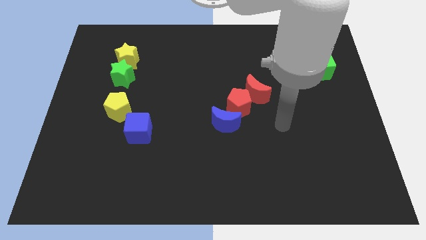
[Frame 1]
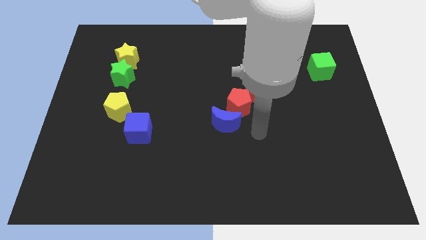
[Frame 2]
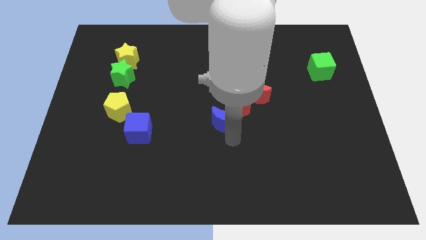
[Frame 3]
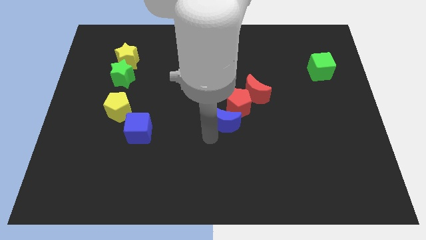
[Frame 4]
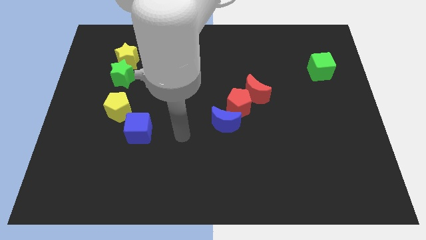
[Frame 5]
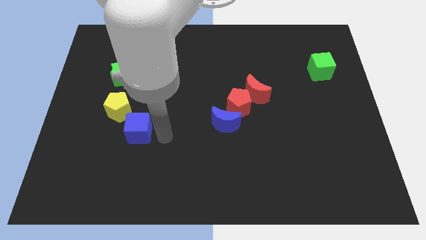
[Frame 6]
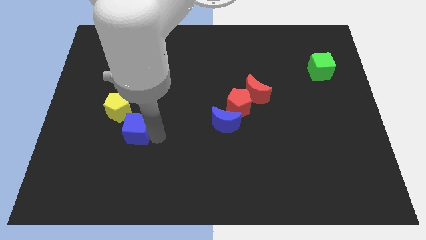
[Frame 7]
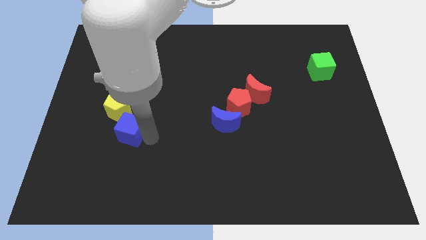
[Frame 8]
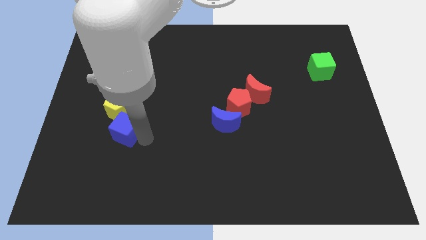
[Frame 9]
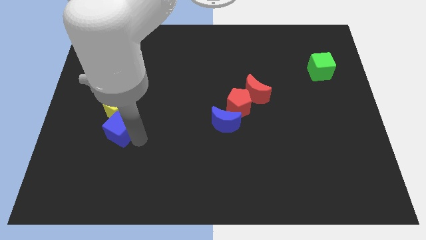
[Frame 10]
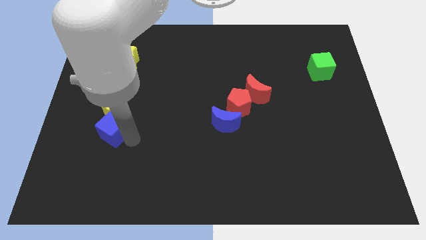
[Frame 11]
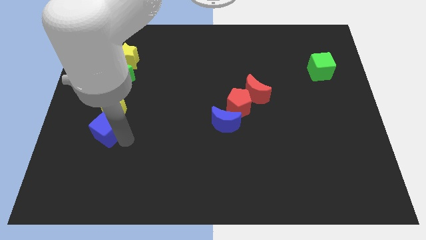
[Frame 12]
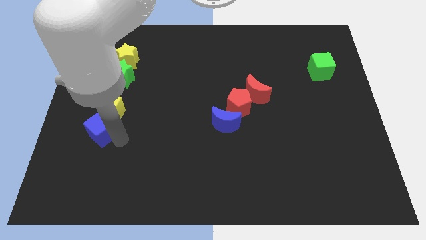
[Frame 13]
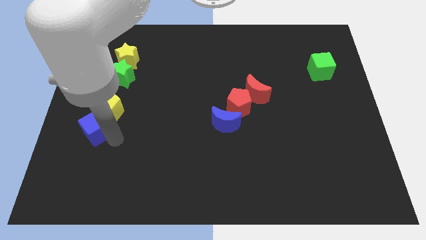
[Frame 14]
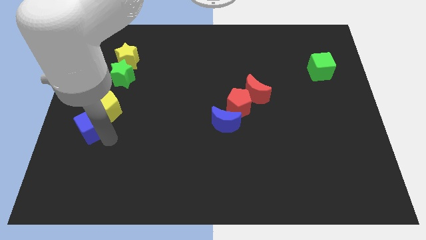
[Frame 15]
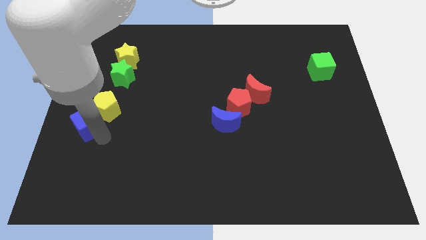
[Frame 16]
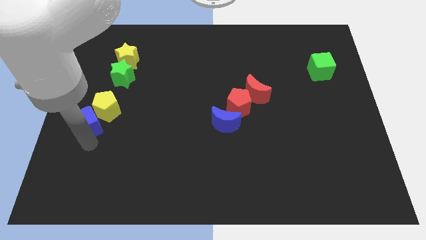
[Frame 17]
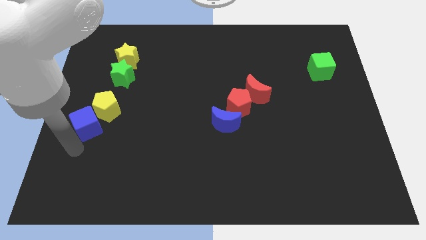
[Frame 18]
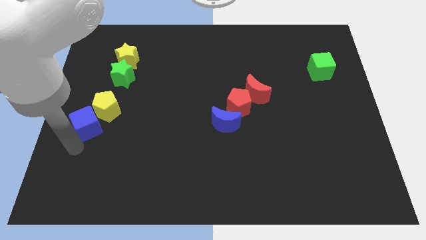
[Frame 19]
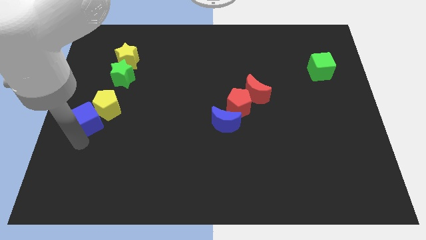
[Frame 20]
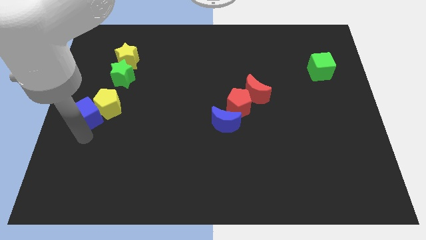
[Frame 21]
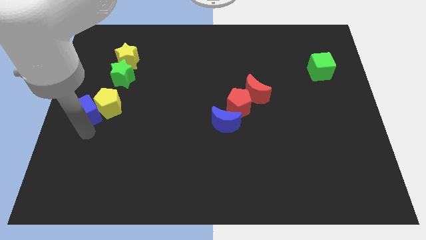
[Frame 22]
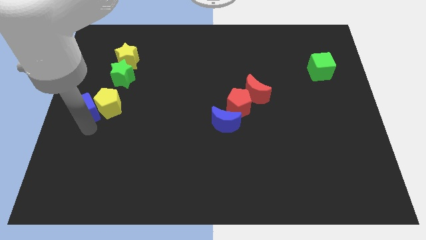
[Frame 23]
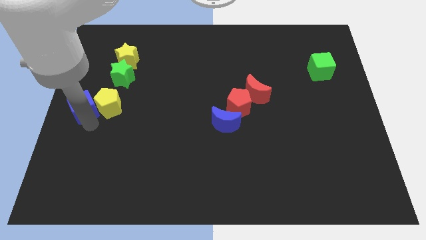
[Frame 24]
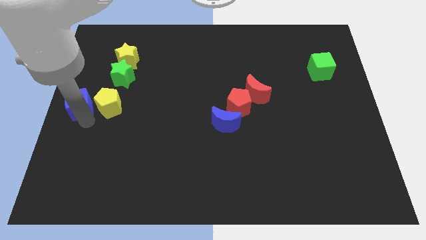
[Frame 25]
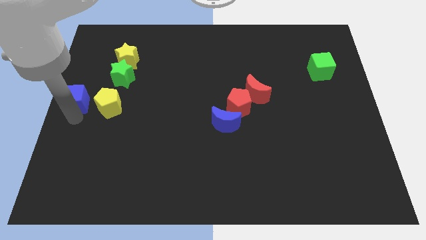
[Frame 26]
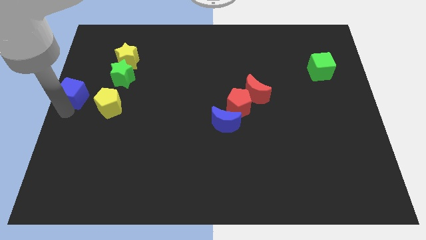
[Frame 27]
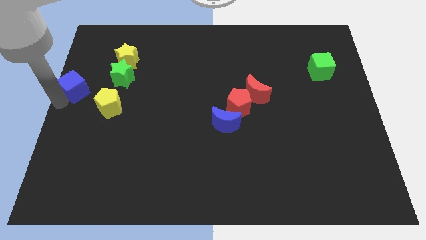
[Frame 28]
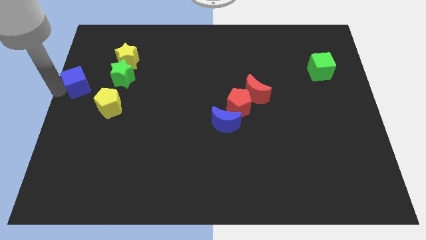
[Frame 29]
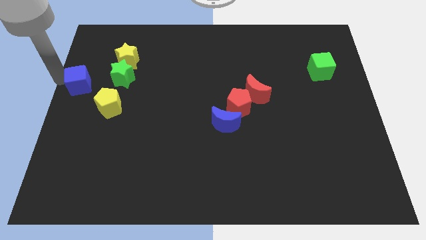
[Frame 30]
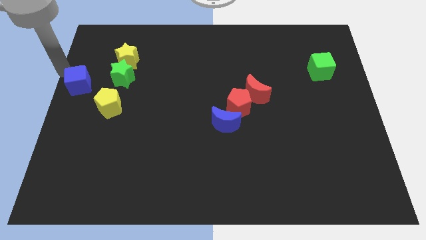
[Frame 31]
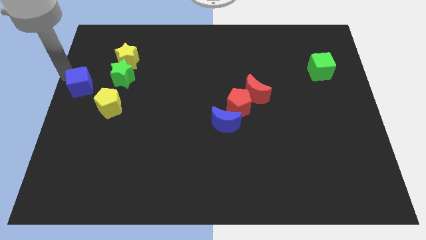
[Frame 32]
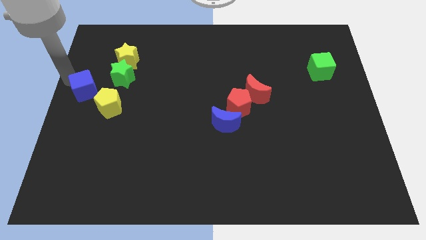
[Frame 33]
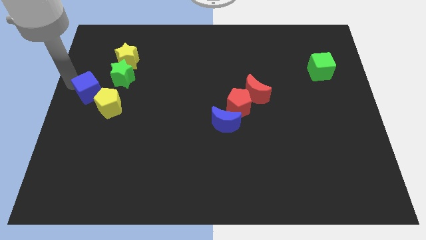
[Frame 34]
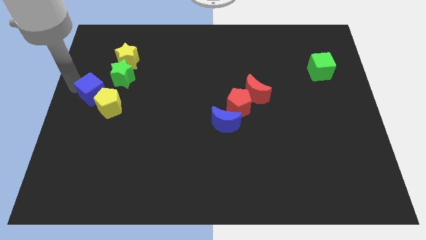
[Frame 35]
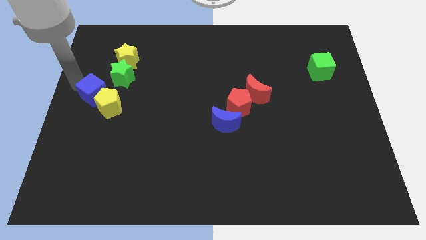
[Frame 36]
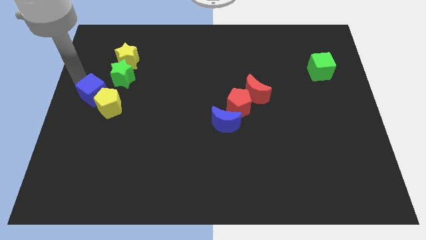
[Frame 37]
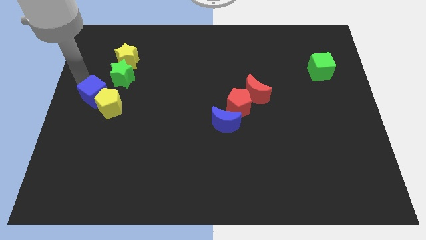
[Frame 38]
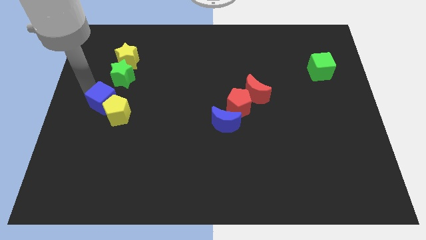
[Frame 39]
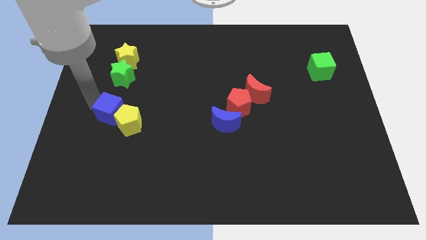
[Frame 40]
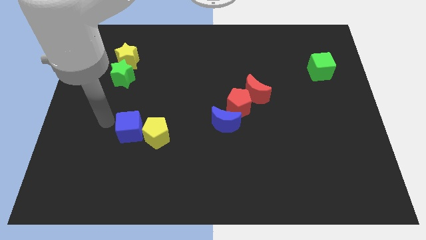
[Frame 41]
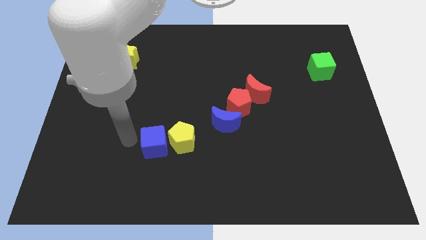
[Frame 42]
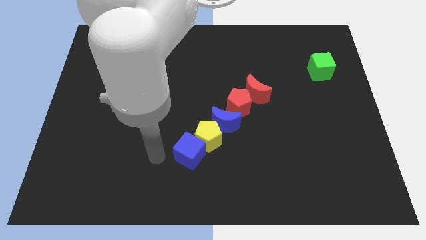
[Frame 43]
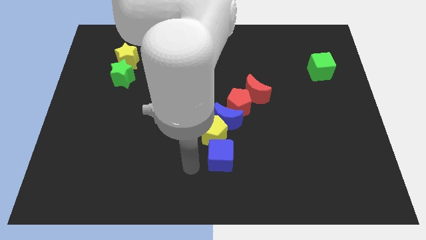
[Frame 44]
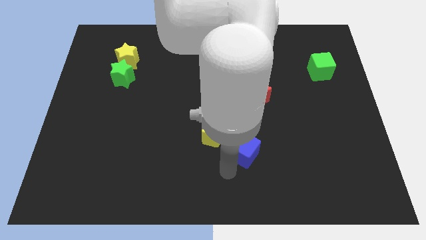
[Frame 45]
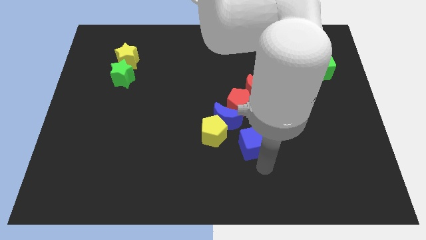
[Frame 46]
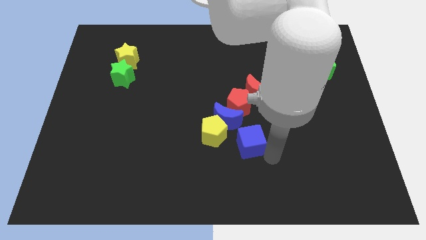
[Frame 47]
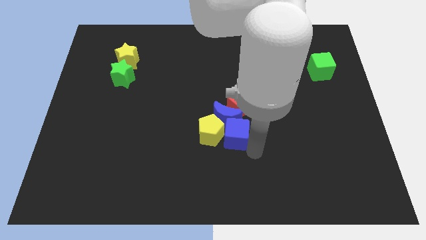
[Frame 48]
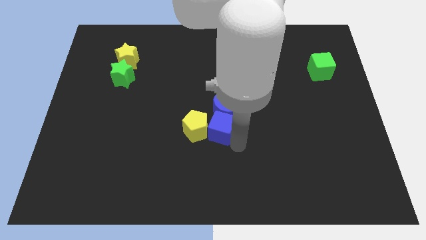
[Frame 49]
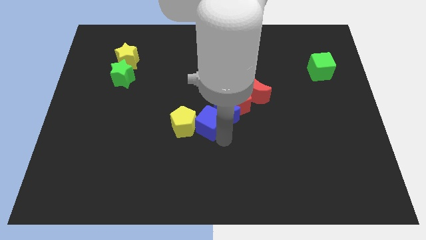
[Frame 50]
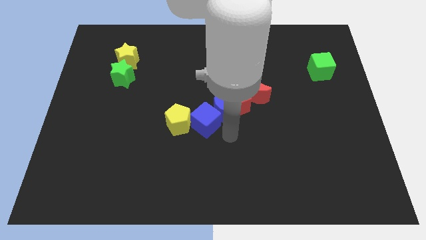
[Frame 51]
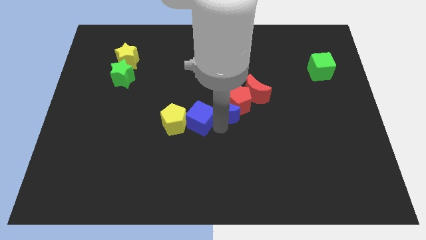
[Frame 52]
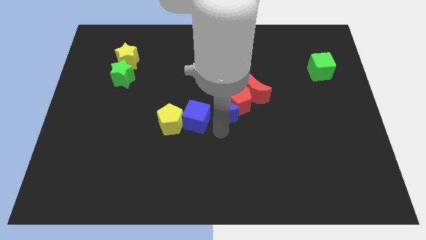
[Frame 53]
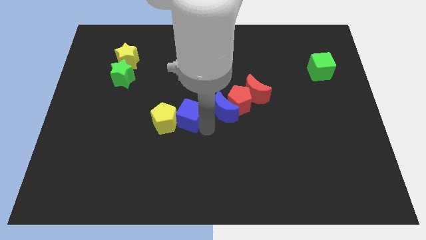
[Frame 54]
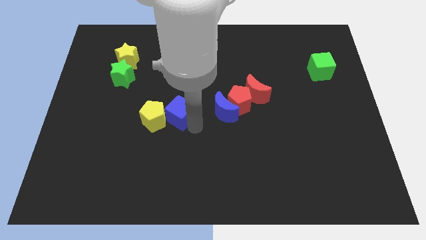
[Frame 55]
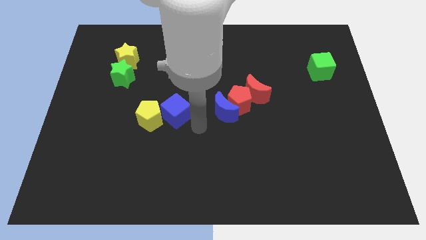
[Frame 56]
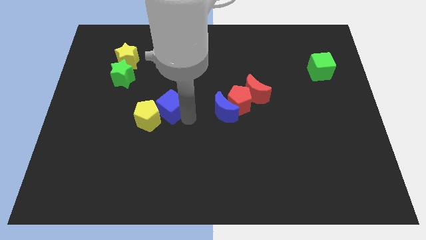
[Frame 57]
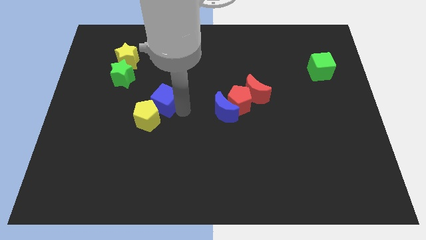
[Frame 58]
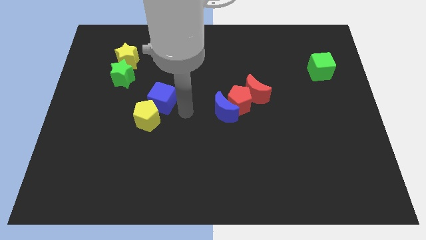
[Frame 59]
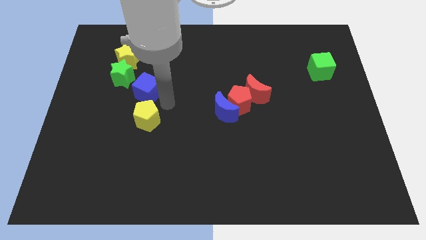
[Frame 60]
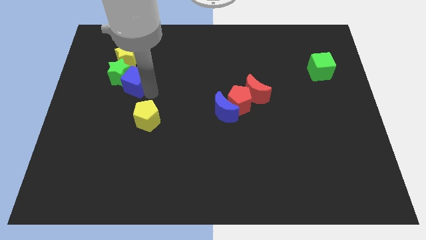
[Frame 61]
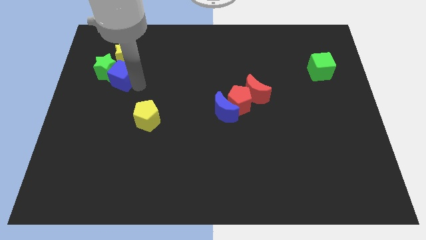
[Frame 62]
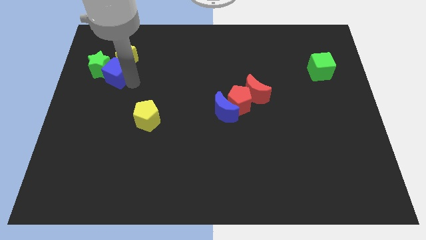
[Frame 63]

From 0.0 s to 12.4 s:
push the blue cube to the bottom left side of the yellow star

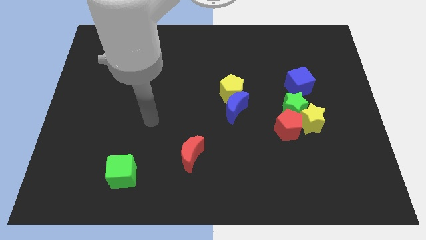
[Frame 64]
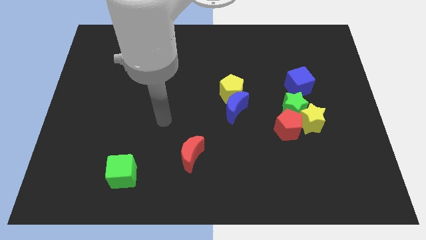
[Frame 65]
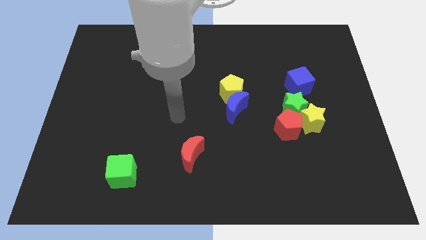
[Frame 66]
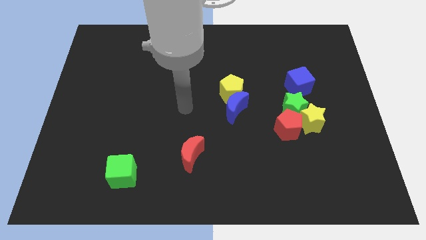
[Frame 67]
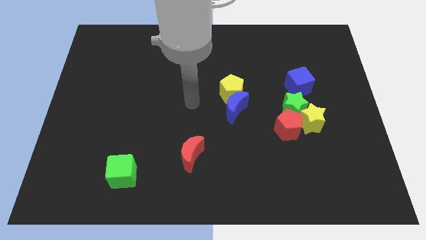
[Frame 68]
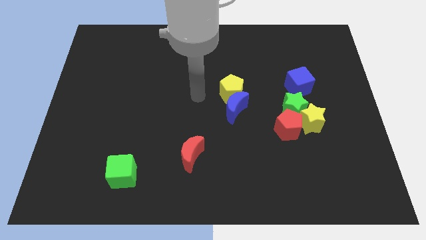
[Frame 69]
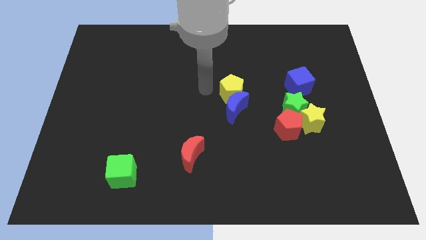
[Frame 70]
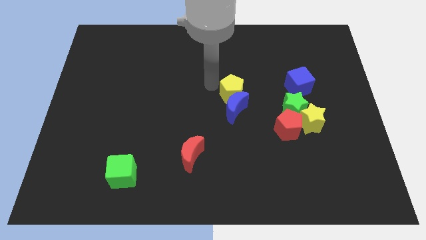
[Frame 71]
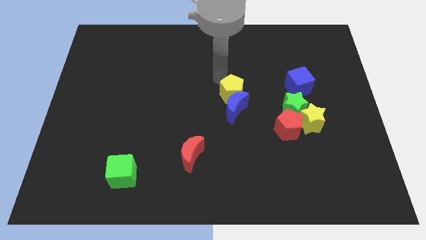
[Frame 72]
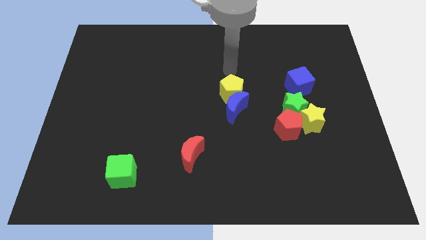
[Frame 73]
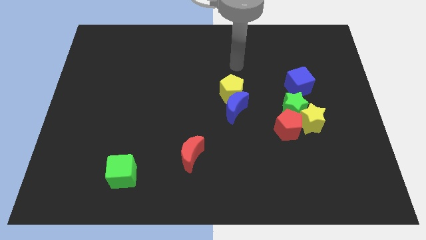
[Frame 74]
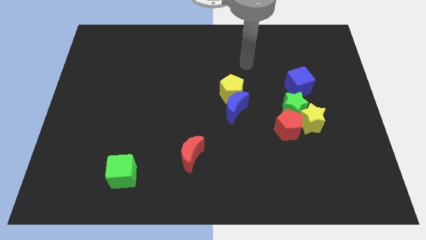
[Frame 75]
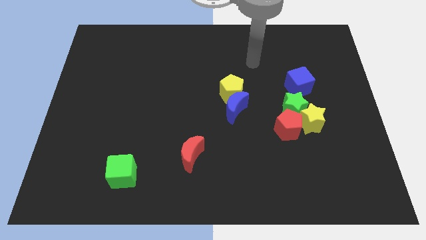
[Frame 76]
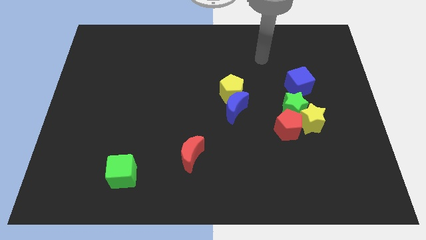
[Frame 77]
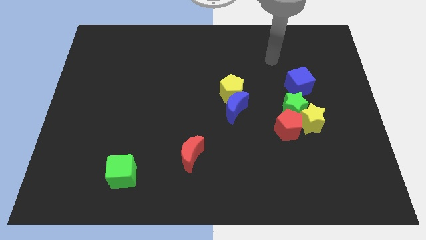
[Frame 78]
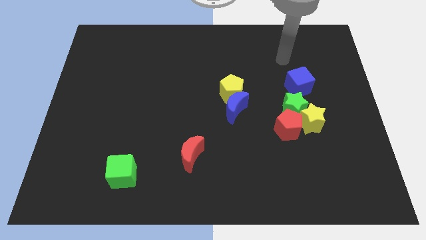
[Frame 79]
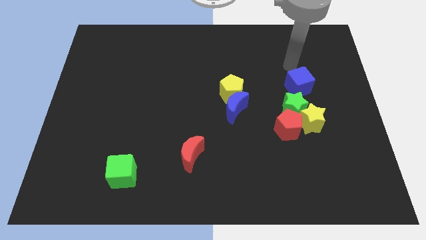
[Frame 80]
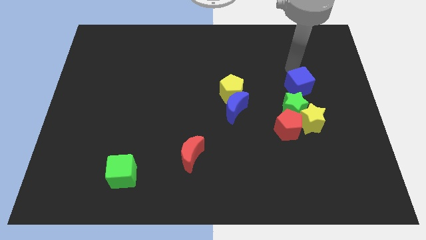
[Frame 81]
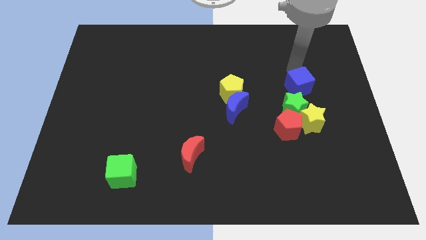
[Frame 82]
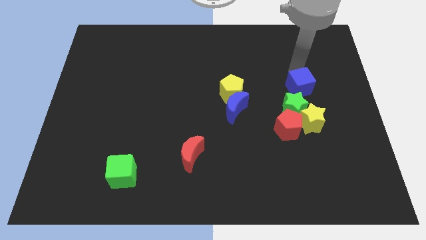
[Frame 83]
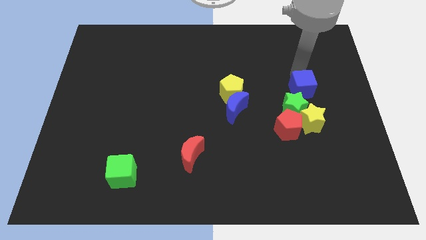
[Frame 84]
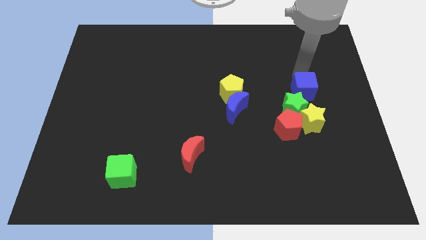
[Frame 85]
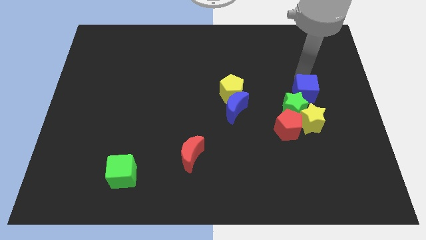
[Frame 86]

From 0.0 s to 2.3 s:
move the blue cube to the top right of the red pentagon
